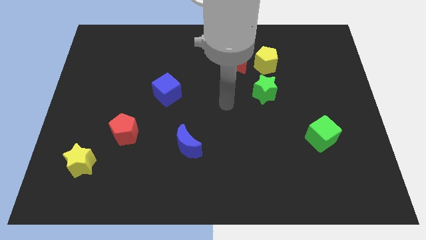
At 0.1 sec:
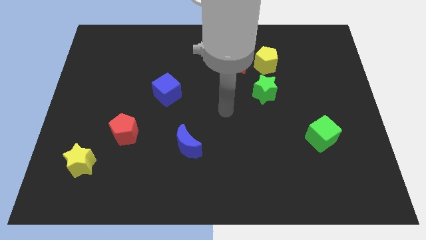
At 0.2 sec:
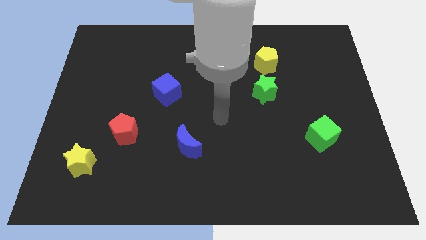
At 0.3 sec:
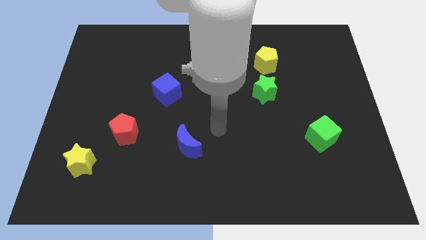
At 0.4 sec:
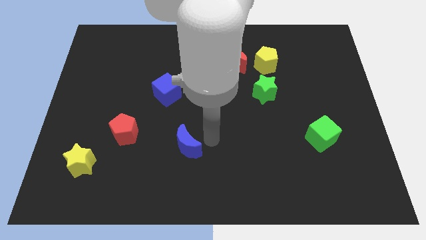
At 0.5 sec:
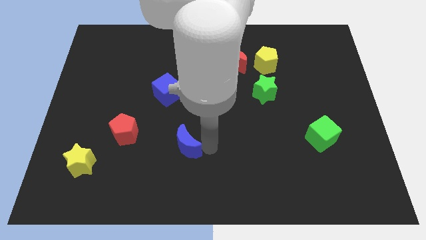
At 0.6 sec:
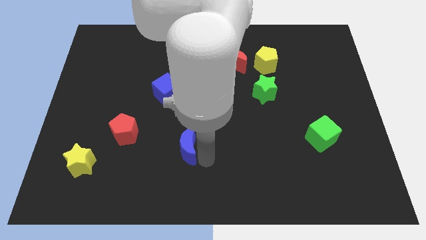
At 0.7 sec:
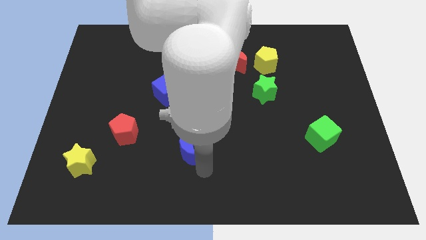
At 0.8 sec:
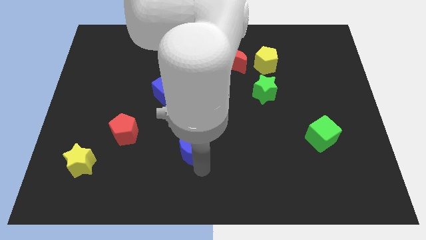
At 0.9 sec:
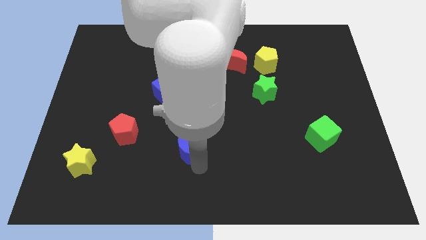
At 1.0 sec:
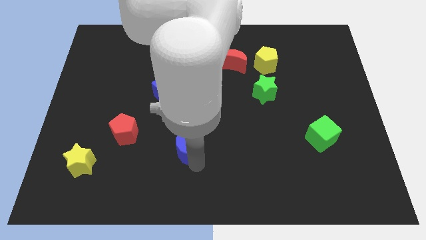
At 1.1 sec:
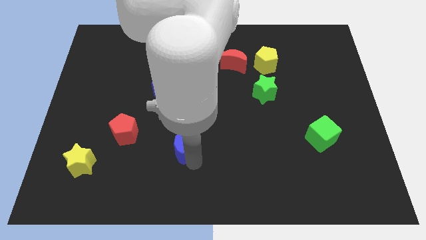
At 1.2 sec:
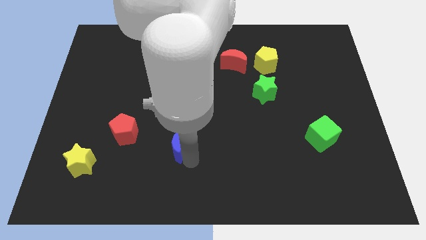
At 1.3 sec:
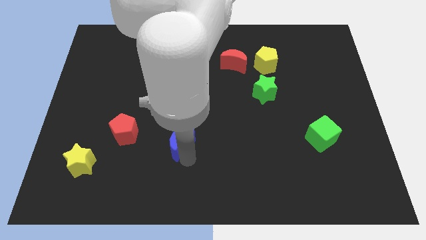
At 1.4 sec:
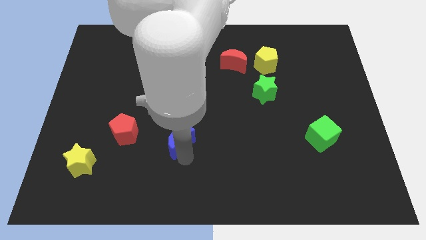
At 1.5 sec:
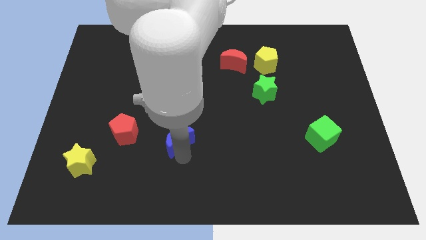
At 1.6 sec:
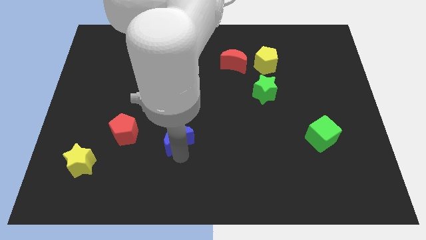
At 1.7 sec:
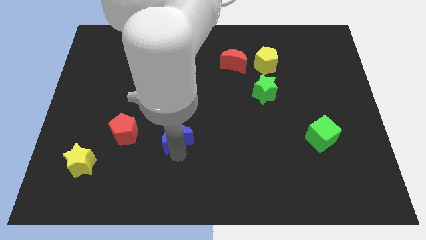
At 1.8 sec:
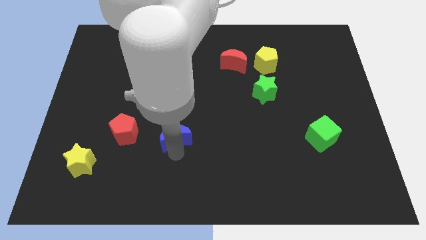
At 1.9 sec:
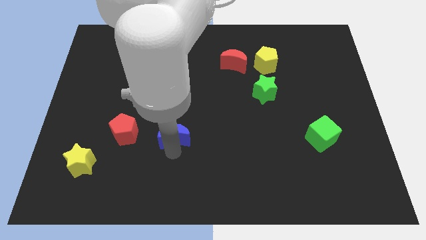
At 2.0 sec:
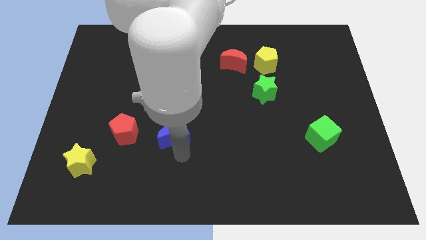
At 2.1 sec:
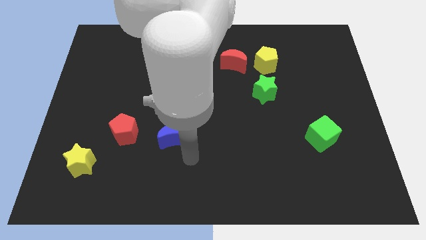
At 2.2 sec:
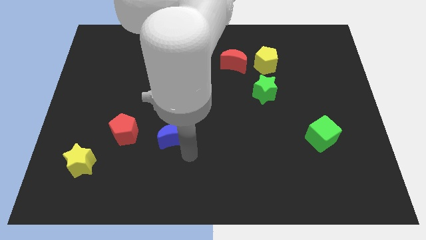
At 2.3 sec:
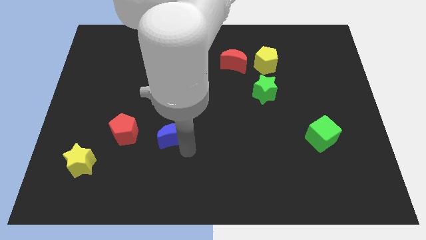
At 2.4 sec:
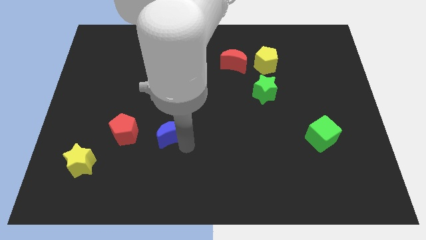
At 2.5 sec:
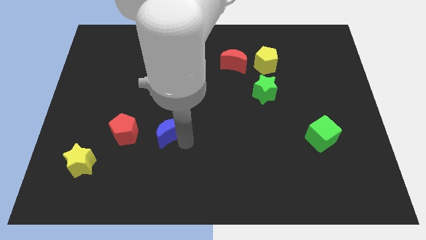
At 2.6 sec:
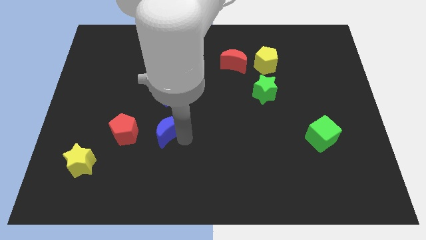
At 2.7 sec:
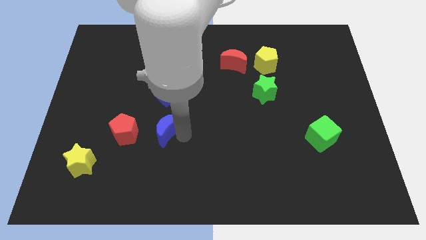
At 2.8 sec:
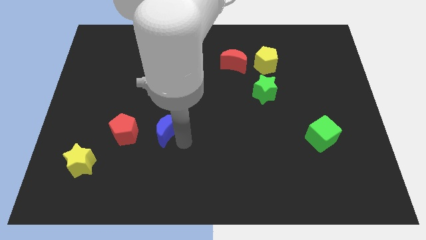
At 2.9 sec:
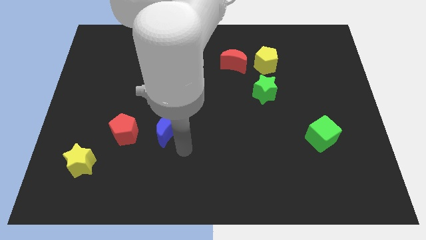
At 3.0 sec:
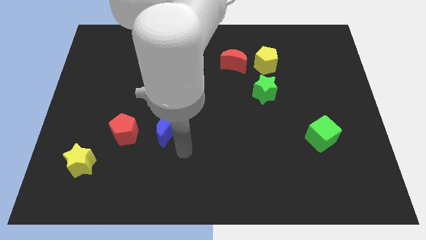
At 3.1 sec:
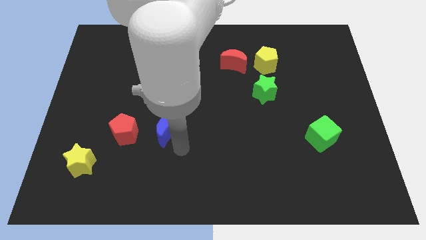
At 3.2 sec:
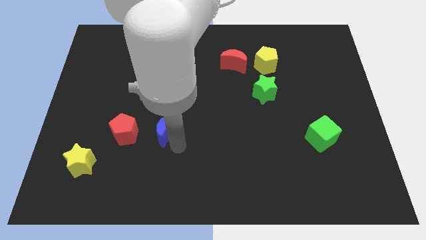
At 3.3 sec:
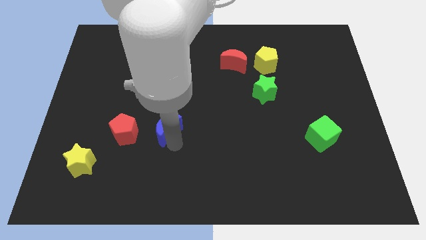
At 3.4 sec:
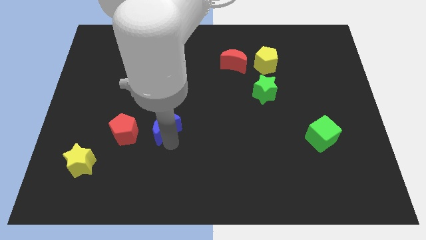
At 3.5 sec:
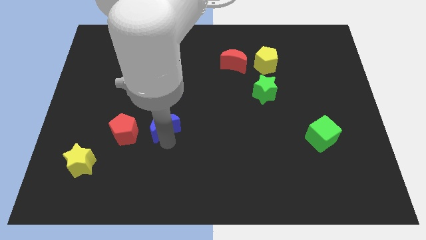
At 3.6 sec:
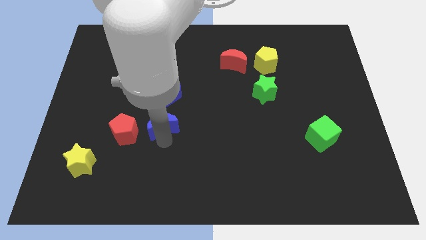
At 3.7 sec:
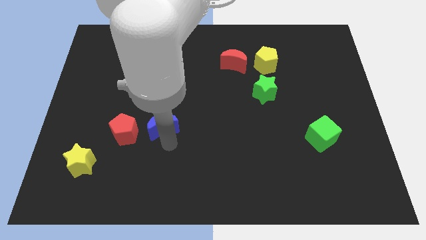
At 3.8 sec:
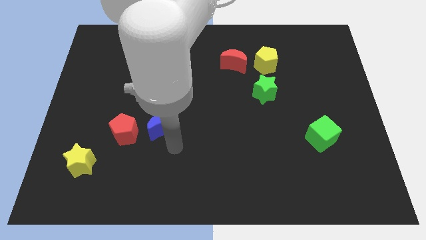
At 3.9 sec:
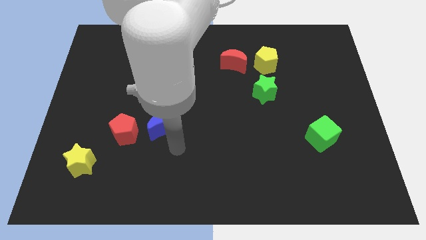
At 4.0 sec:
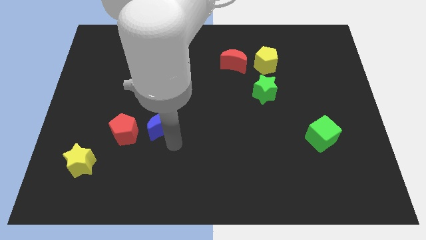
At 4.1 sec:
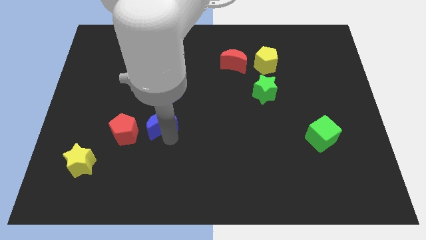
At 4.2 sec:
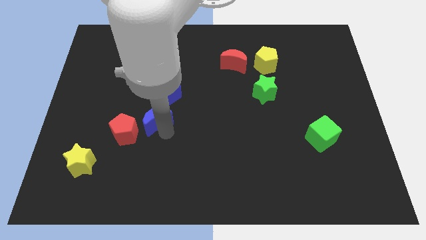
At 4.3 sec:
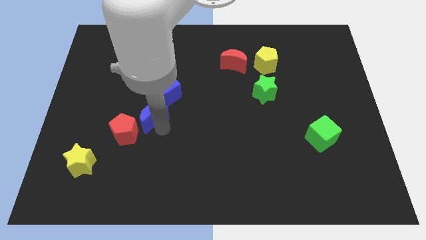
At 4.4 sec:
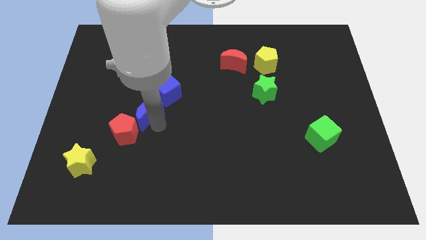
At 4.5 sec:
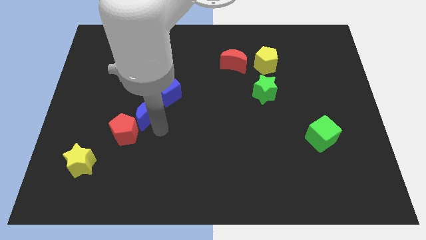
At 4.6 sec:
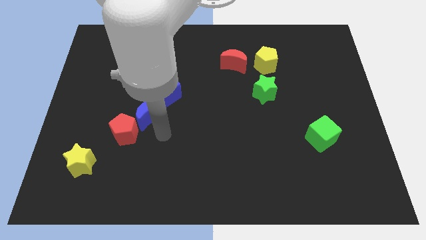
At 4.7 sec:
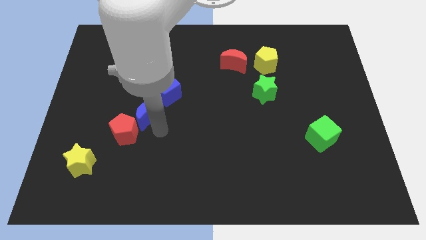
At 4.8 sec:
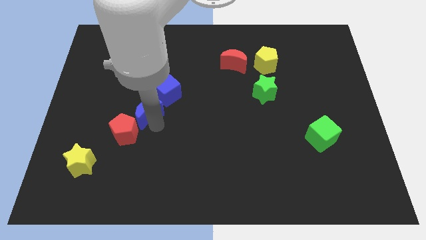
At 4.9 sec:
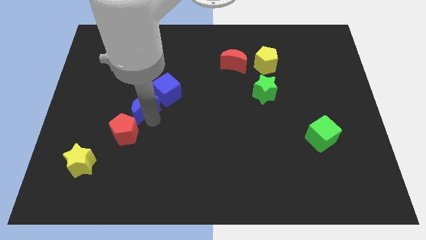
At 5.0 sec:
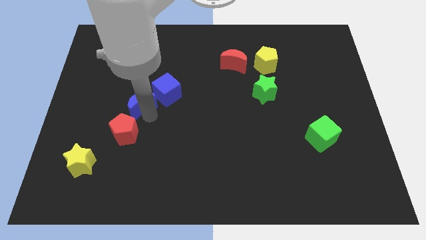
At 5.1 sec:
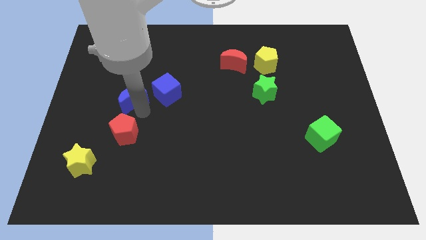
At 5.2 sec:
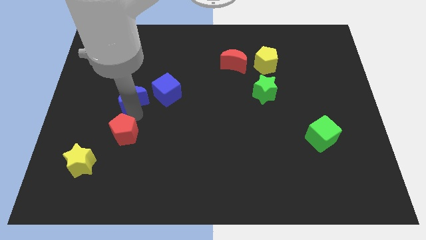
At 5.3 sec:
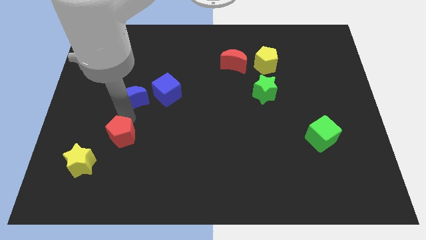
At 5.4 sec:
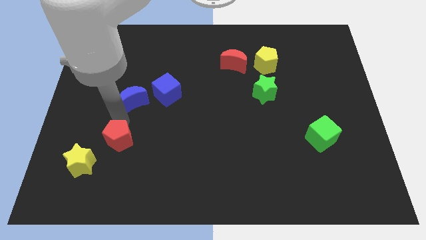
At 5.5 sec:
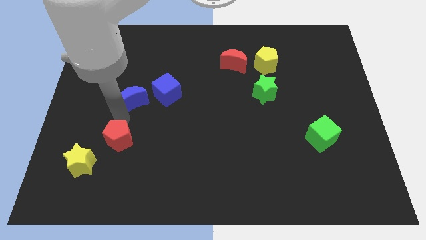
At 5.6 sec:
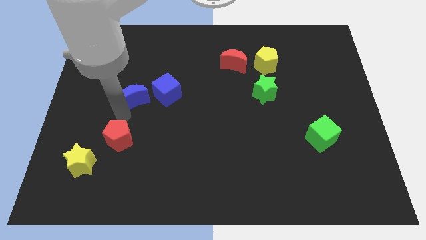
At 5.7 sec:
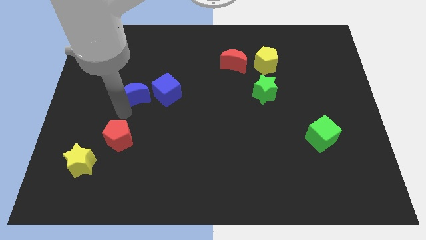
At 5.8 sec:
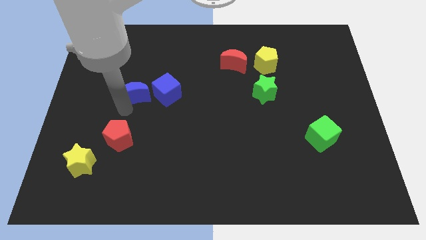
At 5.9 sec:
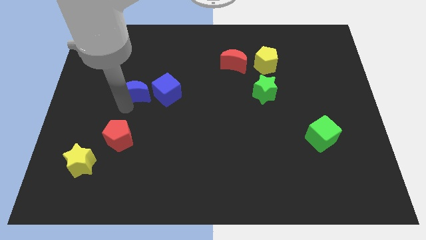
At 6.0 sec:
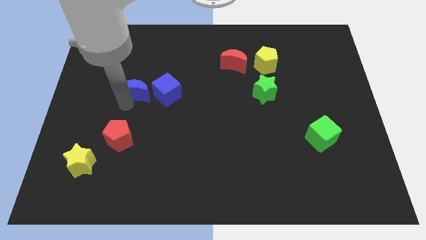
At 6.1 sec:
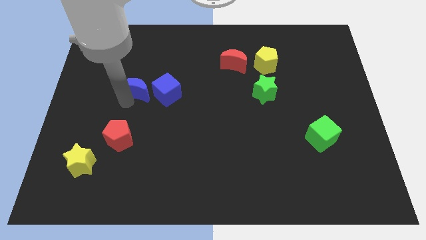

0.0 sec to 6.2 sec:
move the blue moon to the top left of the blue cube

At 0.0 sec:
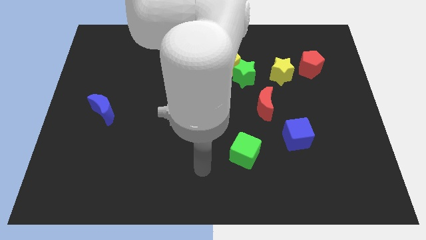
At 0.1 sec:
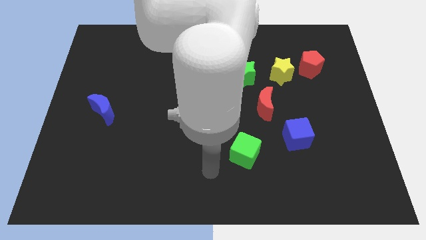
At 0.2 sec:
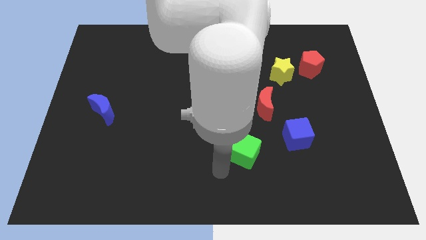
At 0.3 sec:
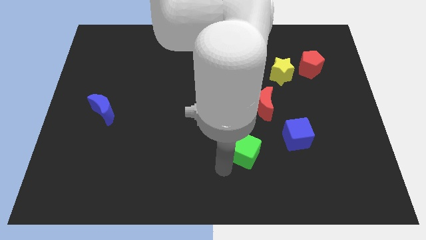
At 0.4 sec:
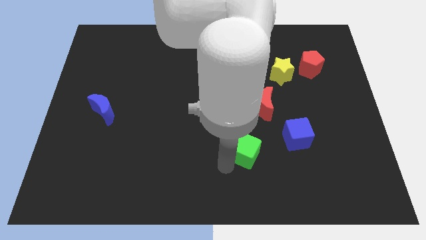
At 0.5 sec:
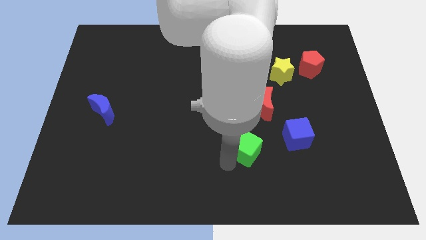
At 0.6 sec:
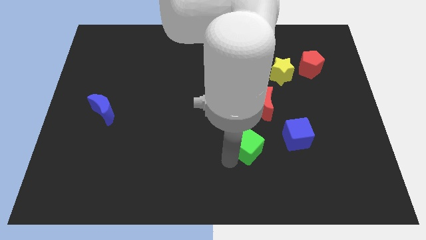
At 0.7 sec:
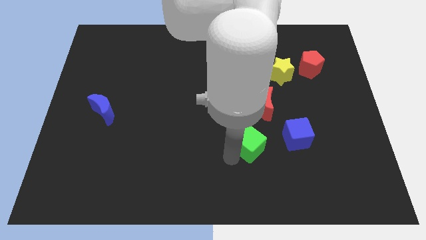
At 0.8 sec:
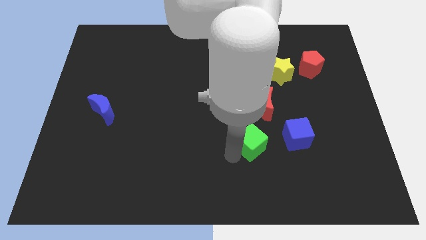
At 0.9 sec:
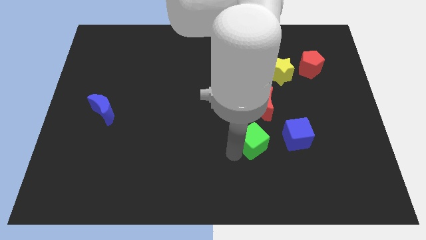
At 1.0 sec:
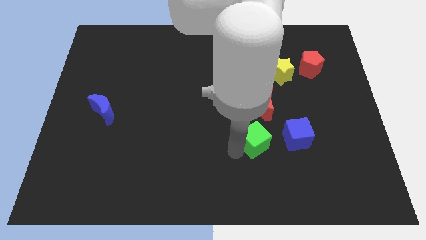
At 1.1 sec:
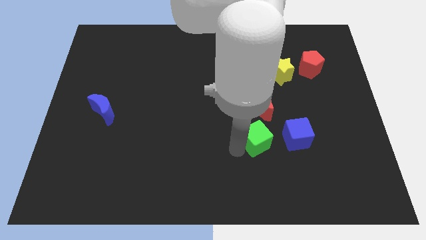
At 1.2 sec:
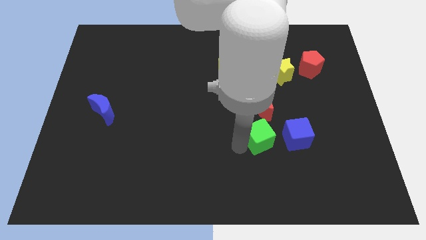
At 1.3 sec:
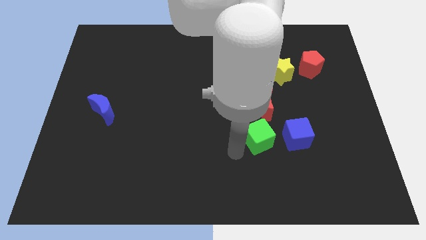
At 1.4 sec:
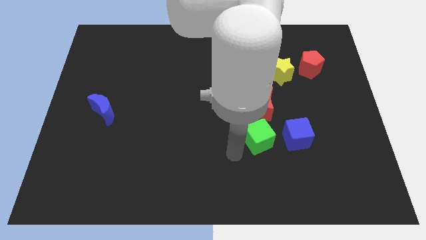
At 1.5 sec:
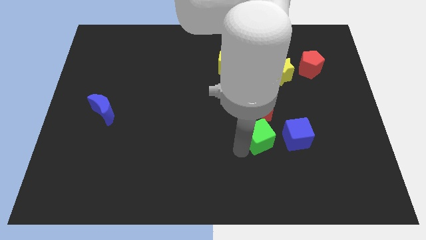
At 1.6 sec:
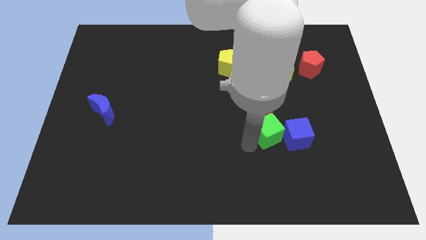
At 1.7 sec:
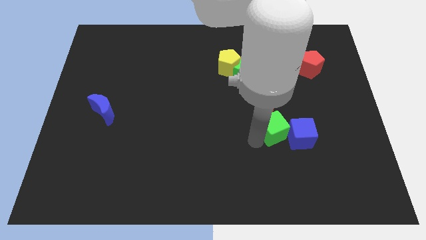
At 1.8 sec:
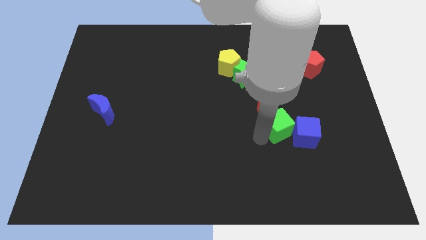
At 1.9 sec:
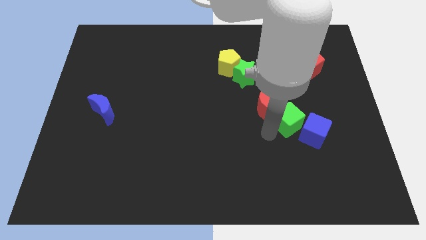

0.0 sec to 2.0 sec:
move the green cube just right of the red moon

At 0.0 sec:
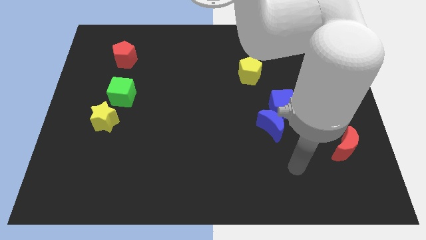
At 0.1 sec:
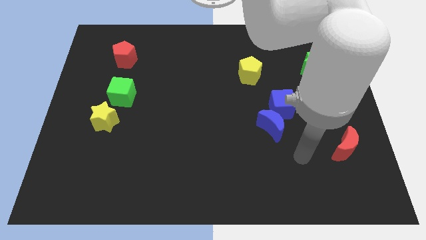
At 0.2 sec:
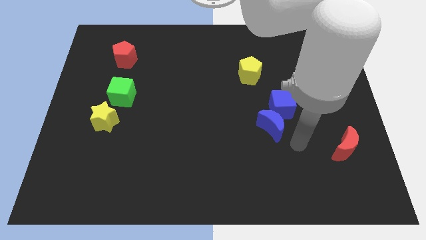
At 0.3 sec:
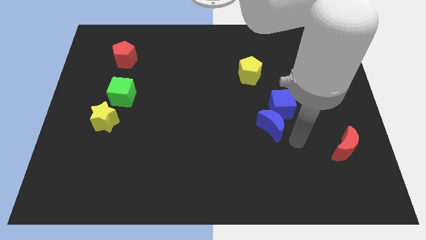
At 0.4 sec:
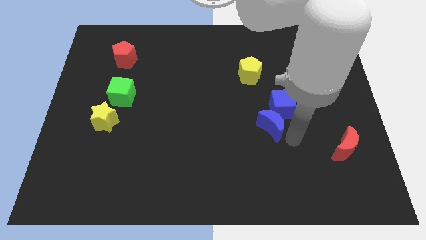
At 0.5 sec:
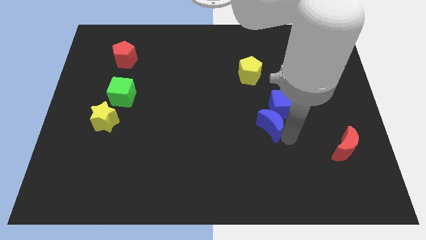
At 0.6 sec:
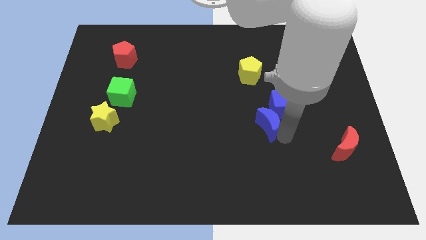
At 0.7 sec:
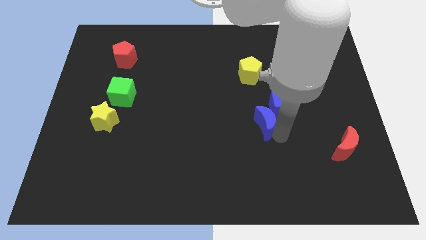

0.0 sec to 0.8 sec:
push the blue moon left of the blue cube
